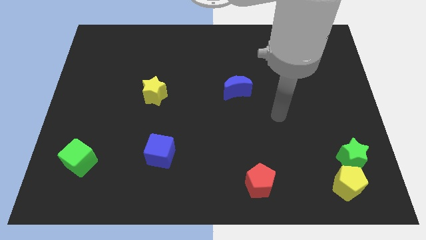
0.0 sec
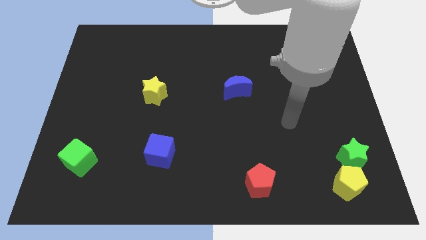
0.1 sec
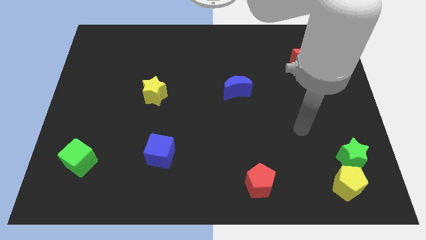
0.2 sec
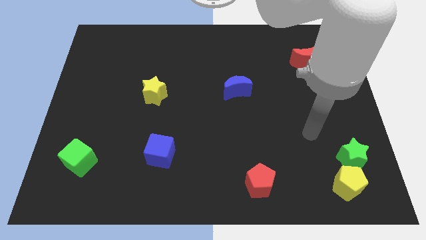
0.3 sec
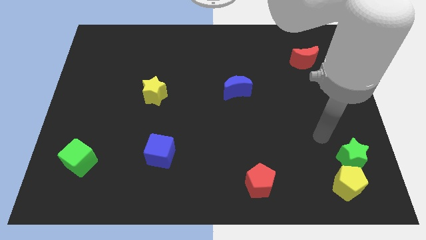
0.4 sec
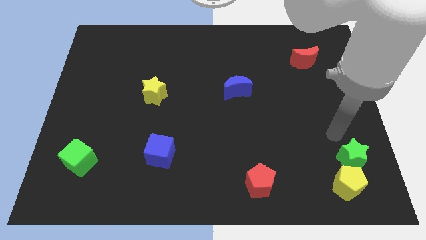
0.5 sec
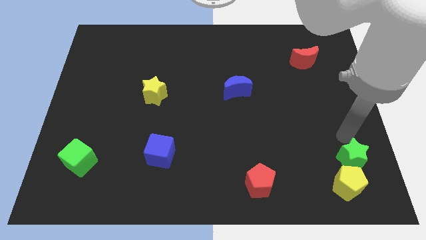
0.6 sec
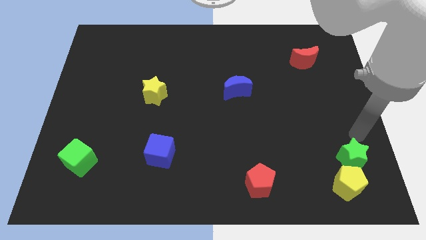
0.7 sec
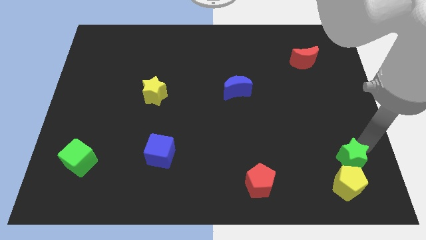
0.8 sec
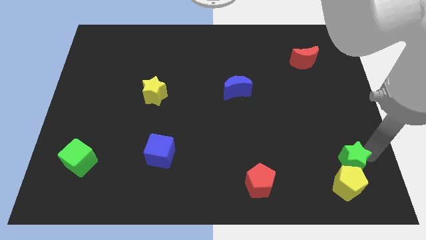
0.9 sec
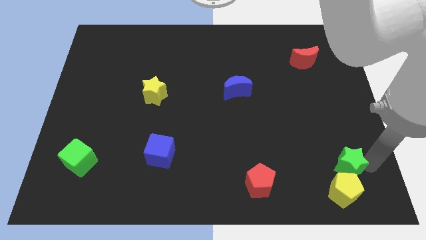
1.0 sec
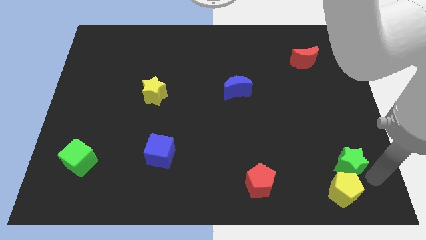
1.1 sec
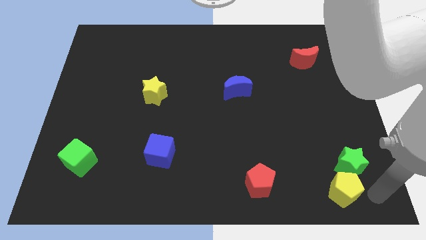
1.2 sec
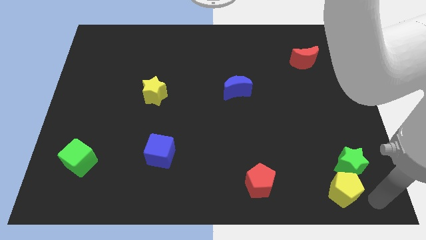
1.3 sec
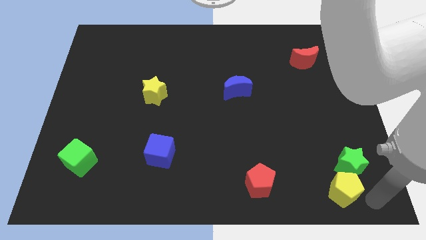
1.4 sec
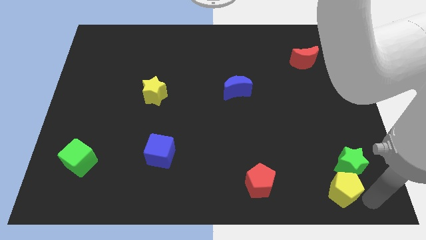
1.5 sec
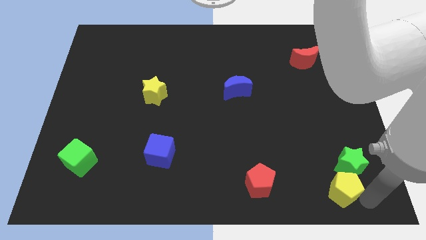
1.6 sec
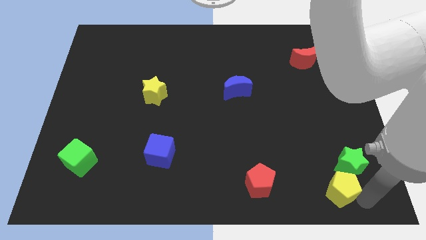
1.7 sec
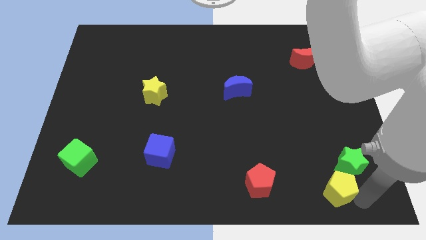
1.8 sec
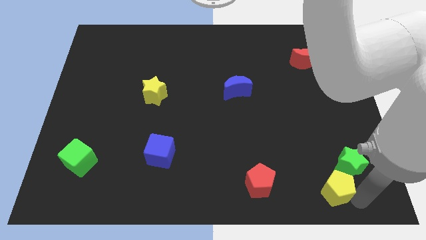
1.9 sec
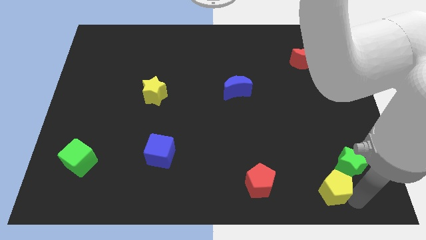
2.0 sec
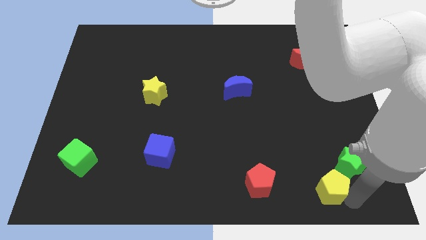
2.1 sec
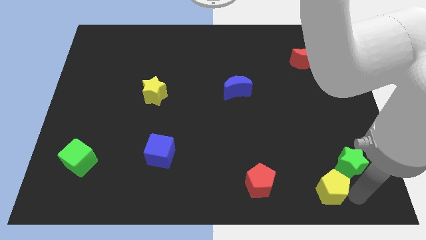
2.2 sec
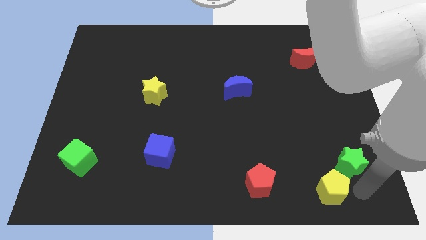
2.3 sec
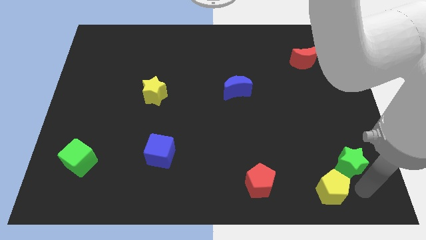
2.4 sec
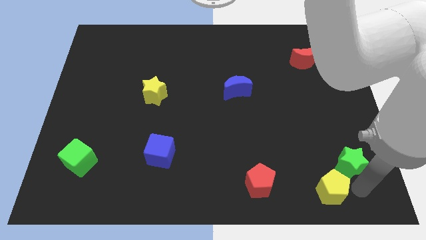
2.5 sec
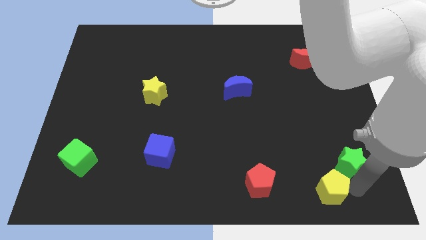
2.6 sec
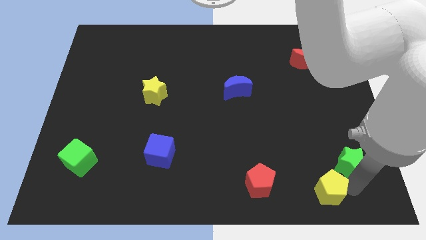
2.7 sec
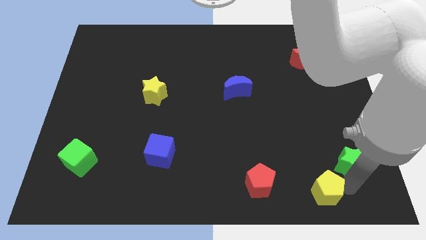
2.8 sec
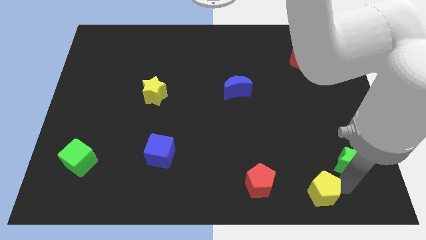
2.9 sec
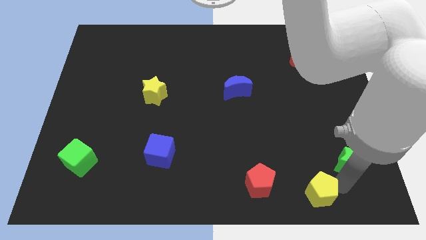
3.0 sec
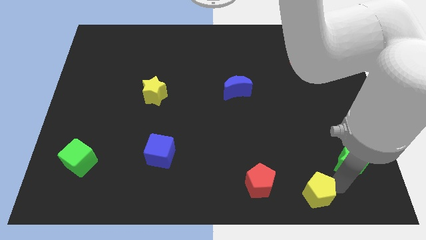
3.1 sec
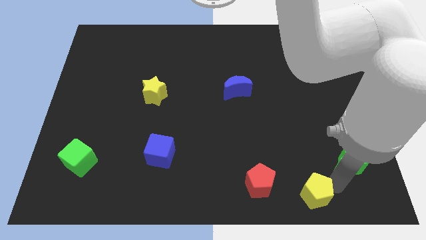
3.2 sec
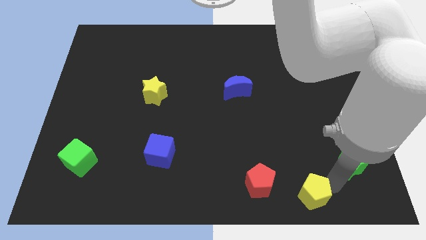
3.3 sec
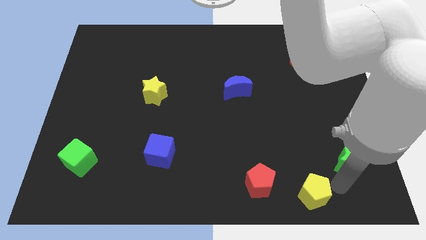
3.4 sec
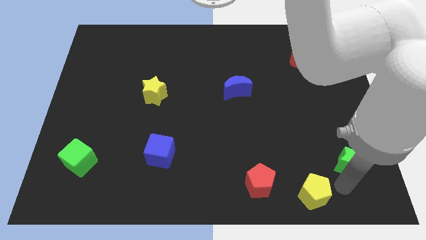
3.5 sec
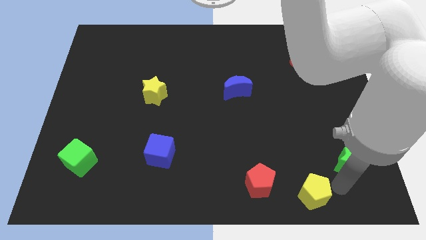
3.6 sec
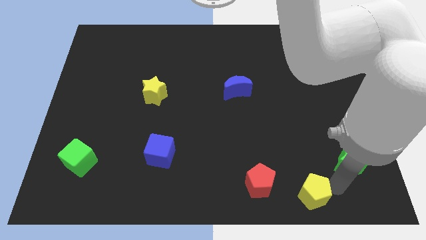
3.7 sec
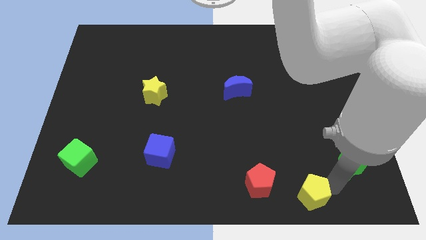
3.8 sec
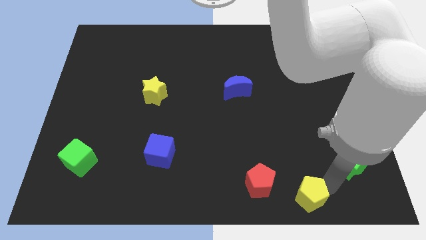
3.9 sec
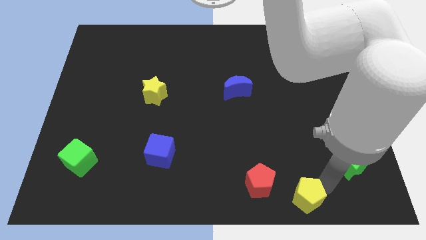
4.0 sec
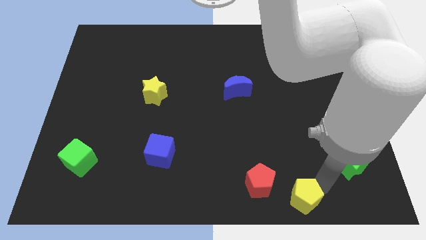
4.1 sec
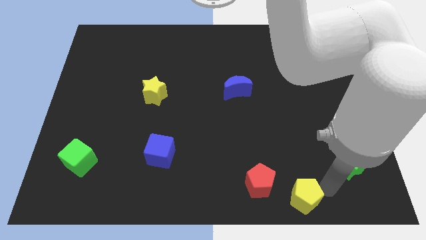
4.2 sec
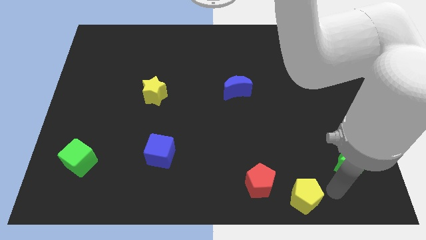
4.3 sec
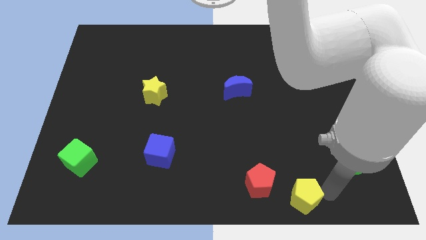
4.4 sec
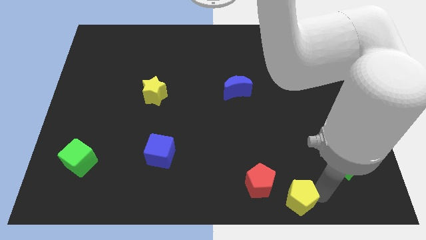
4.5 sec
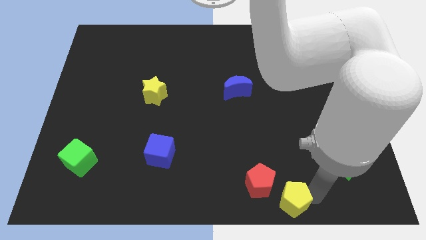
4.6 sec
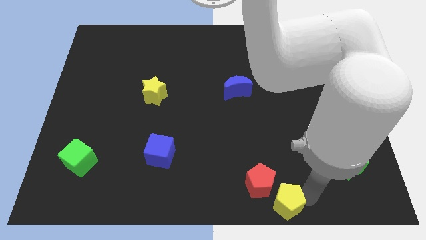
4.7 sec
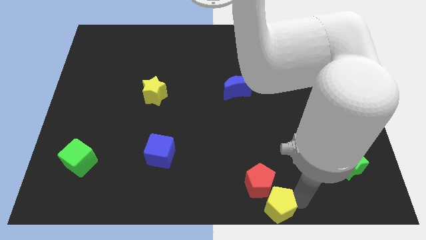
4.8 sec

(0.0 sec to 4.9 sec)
move the yellow pentagon to the bottom side

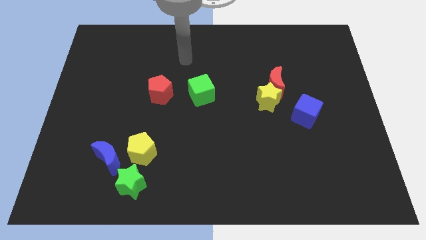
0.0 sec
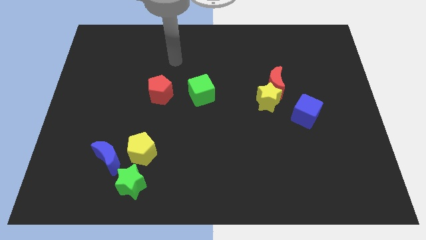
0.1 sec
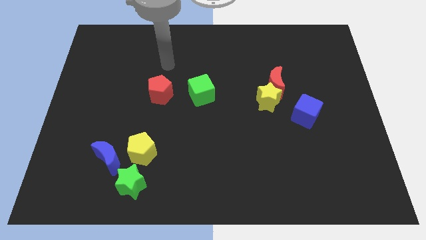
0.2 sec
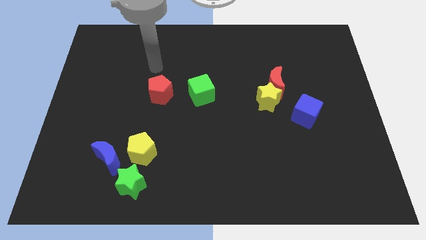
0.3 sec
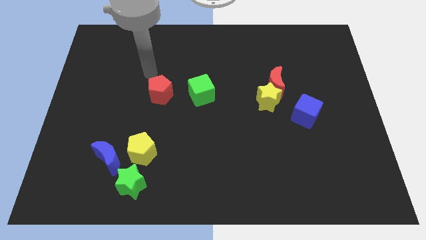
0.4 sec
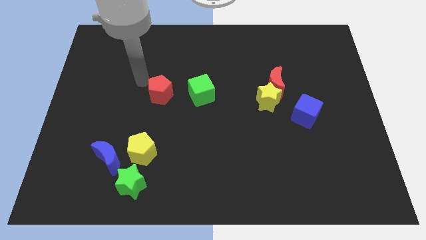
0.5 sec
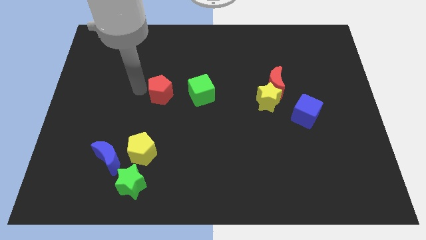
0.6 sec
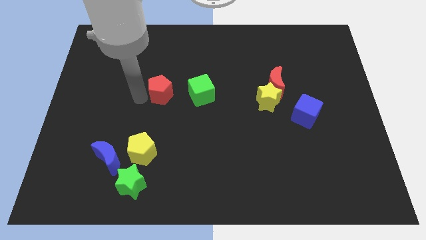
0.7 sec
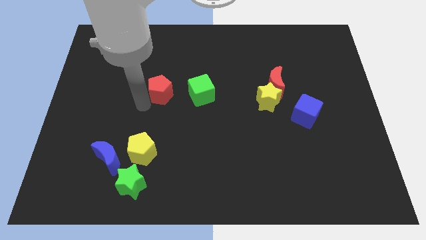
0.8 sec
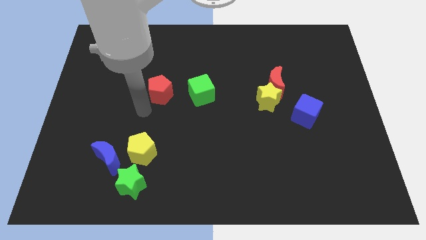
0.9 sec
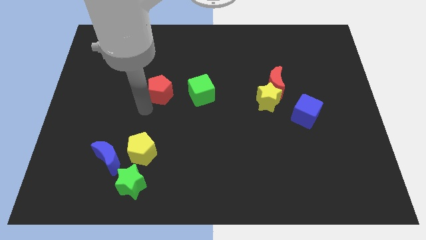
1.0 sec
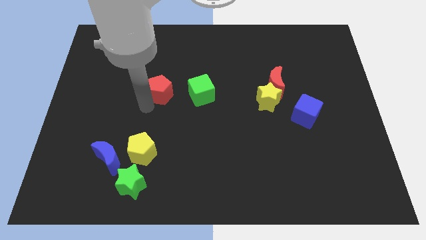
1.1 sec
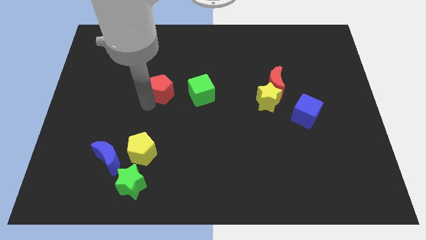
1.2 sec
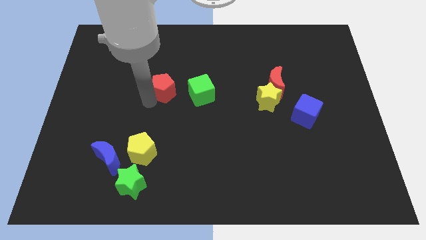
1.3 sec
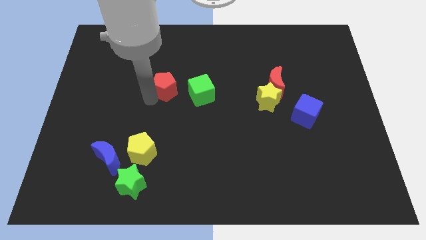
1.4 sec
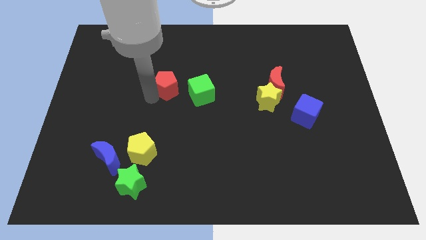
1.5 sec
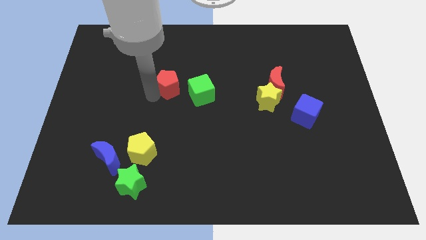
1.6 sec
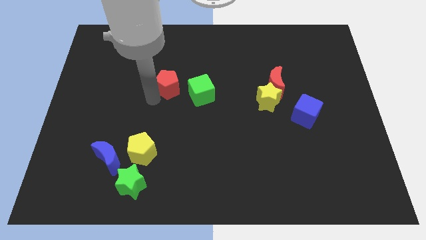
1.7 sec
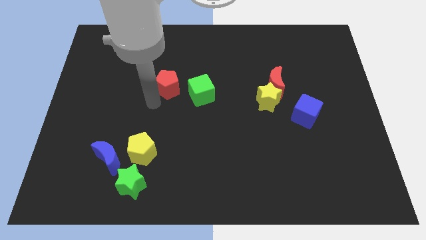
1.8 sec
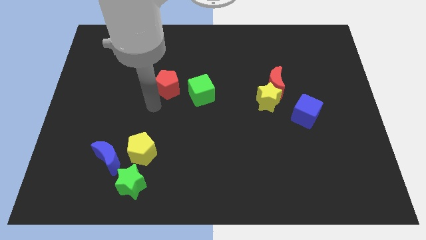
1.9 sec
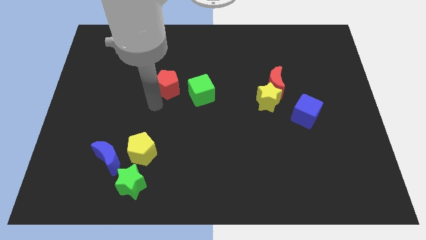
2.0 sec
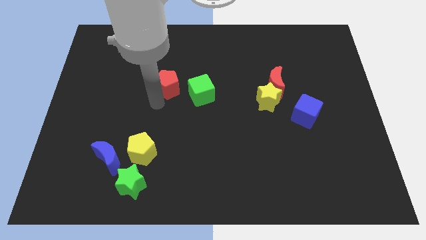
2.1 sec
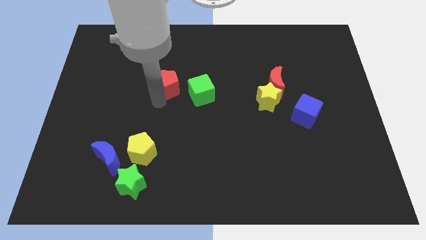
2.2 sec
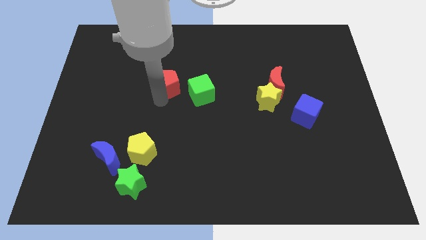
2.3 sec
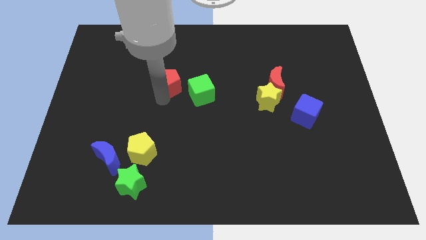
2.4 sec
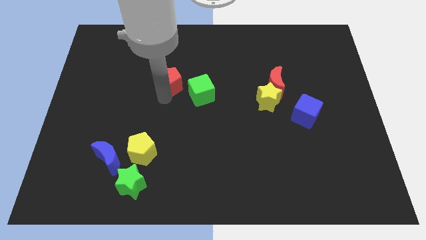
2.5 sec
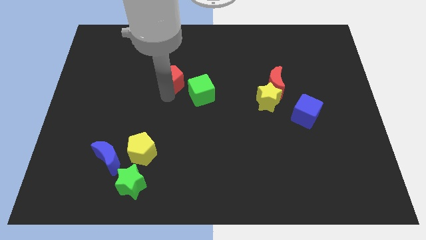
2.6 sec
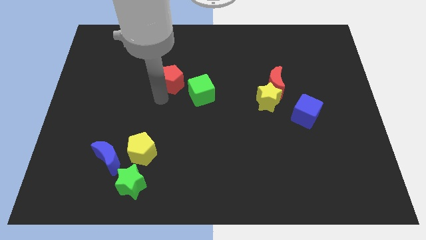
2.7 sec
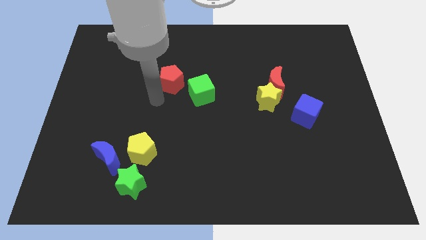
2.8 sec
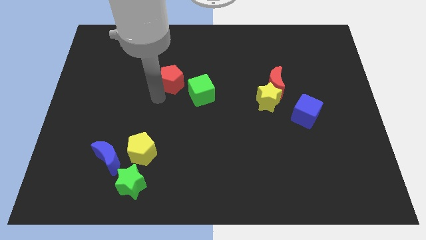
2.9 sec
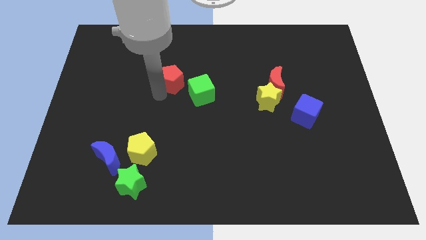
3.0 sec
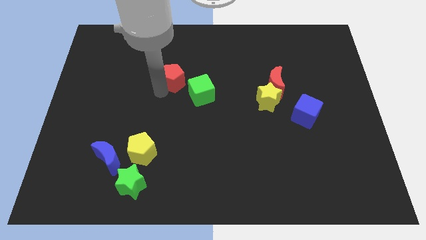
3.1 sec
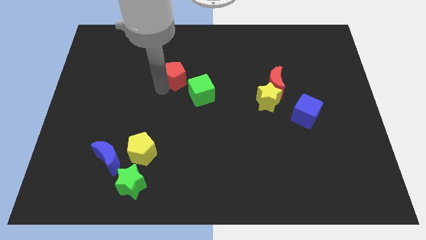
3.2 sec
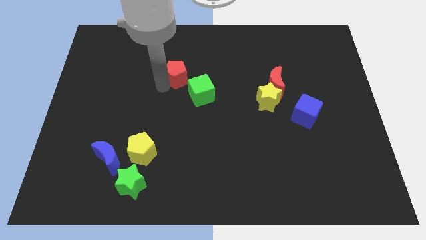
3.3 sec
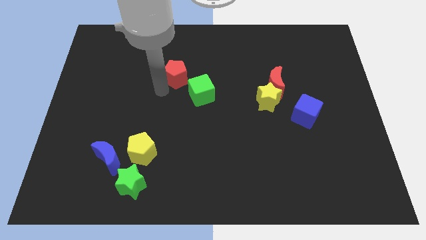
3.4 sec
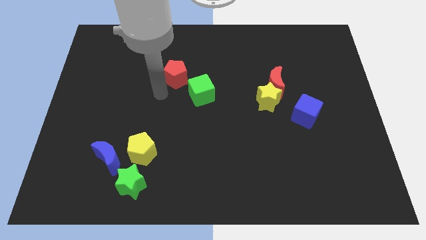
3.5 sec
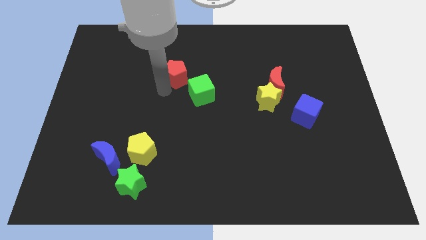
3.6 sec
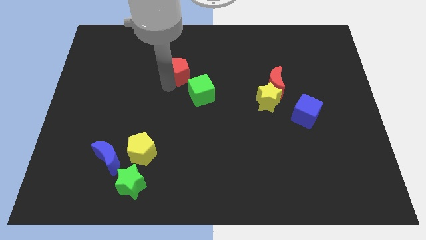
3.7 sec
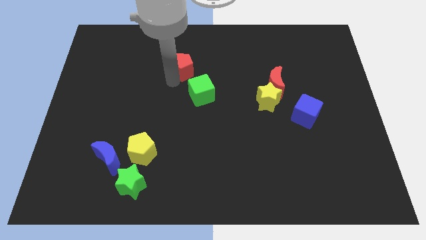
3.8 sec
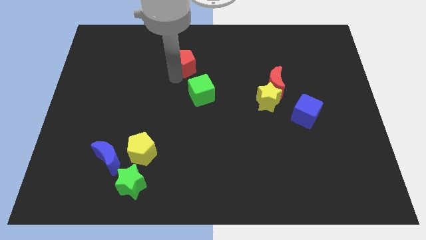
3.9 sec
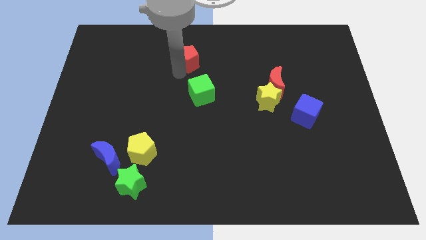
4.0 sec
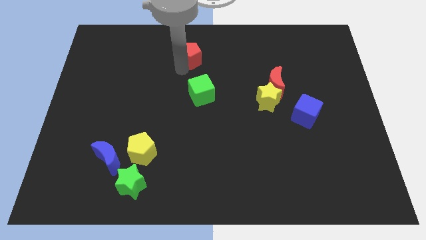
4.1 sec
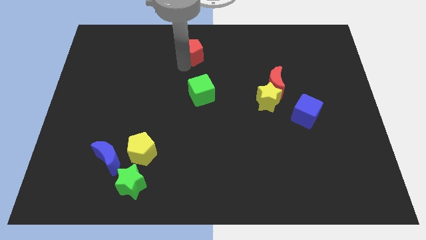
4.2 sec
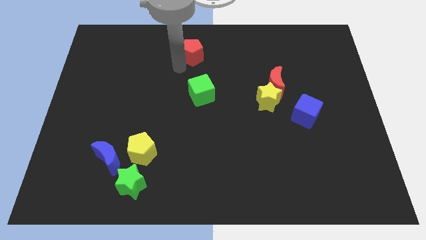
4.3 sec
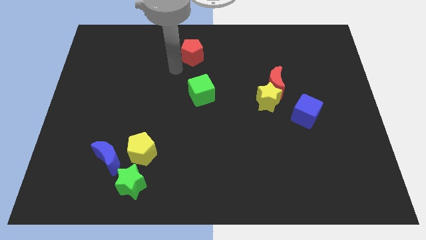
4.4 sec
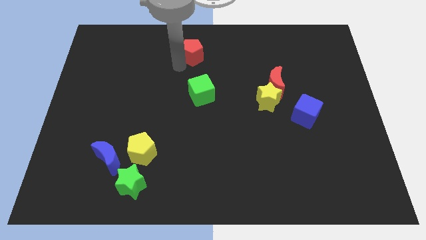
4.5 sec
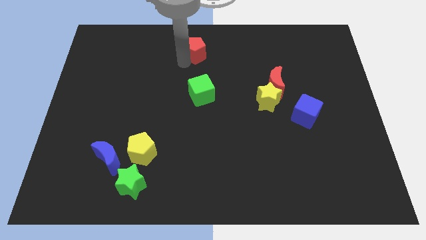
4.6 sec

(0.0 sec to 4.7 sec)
slide the red pentagon to the top
